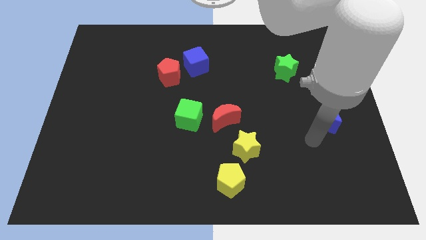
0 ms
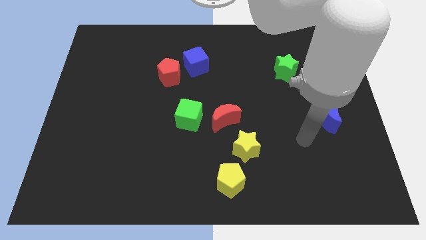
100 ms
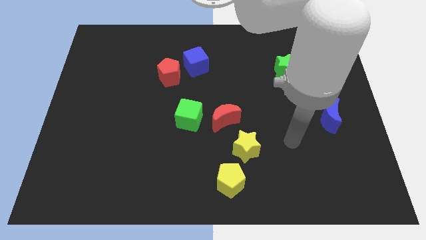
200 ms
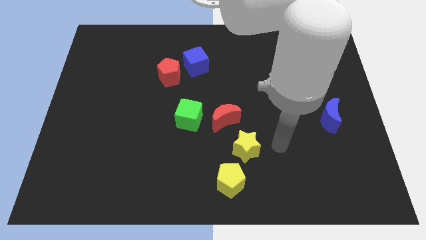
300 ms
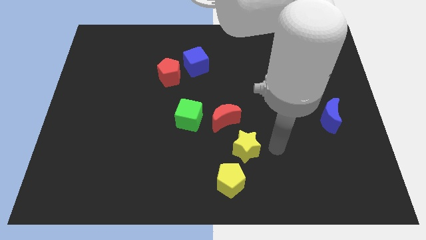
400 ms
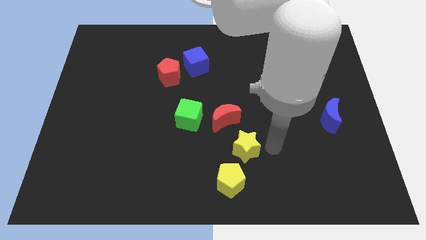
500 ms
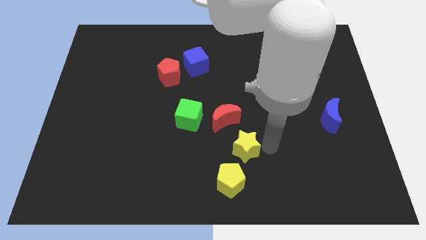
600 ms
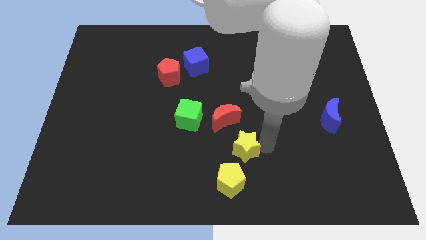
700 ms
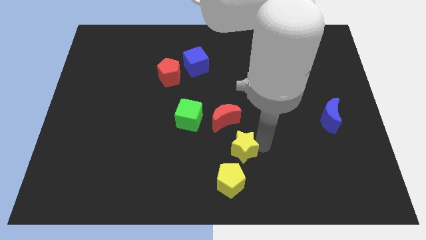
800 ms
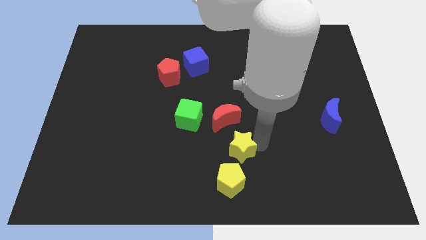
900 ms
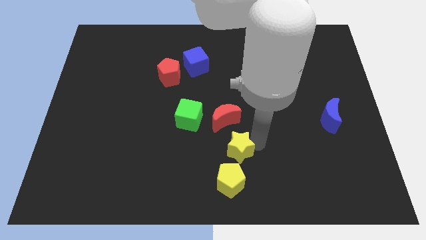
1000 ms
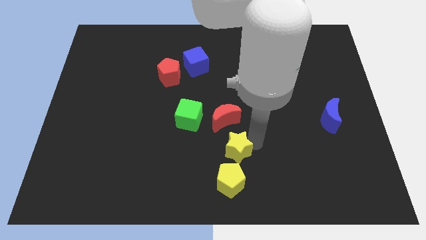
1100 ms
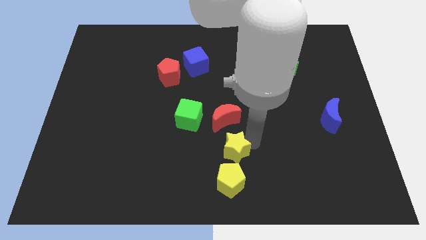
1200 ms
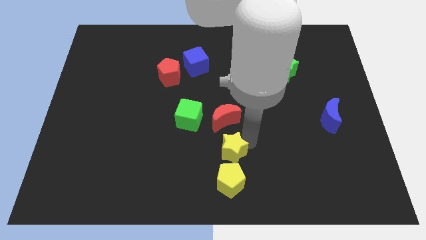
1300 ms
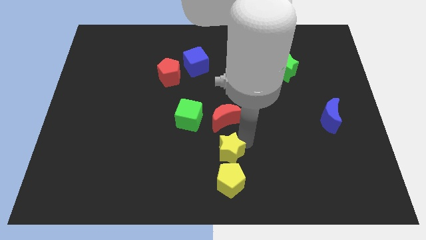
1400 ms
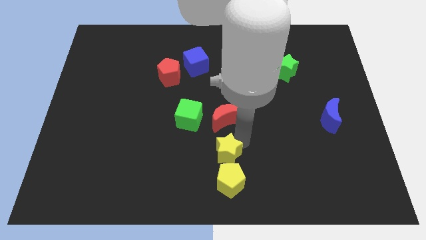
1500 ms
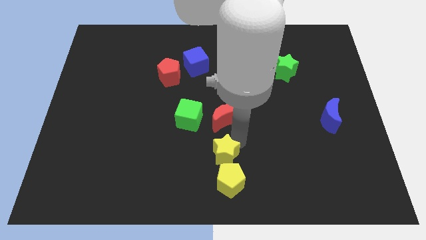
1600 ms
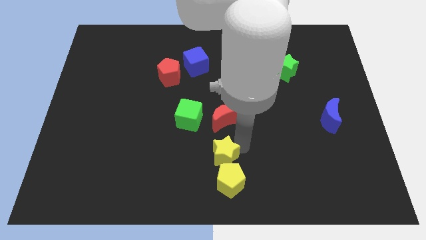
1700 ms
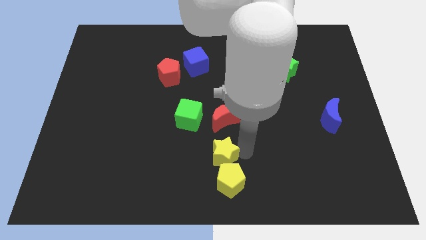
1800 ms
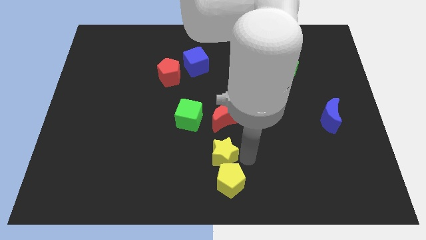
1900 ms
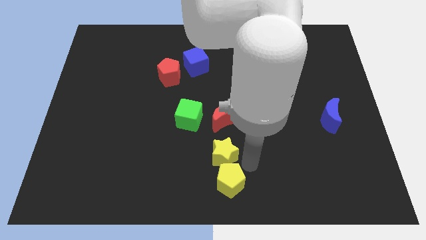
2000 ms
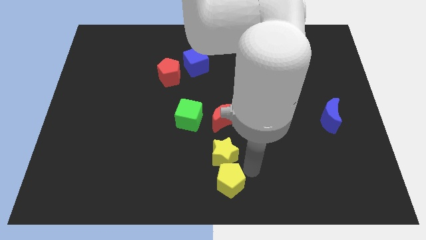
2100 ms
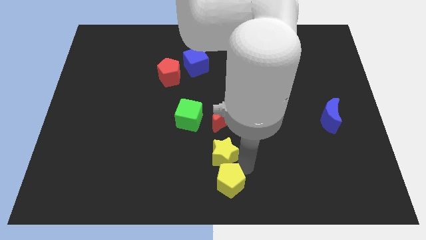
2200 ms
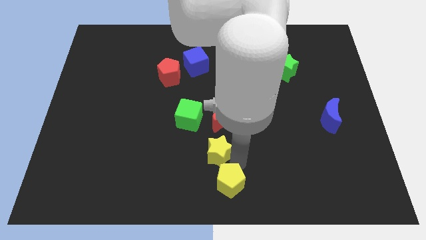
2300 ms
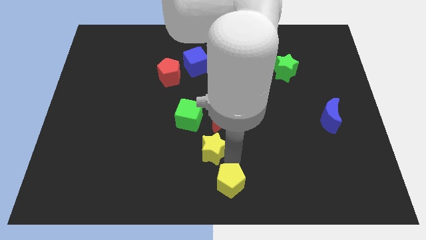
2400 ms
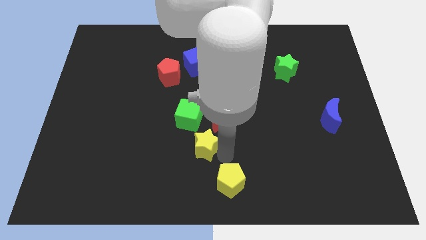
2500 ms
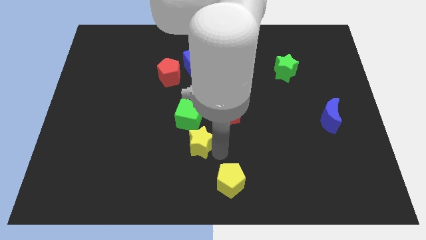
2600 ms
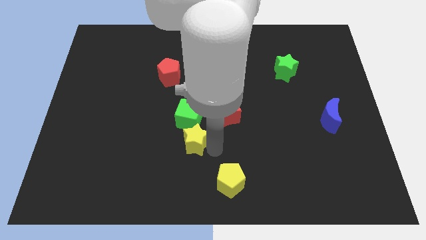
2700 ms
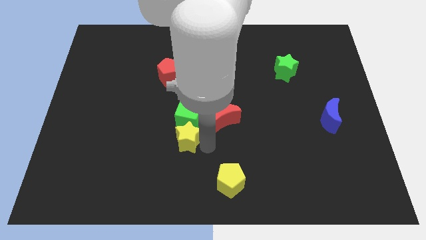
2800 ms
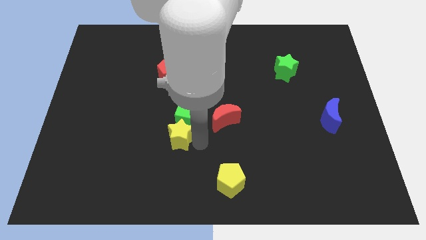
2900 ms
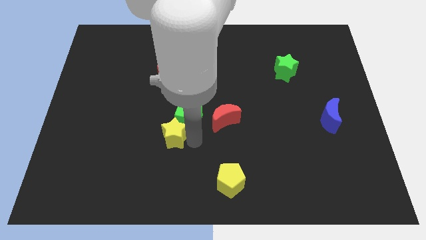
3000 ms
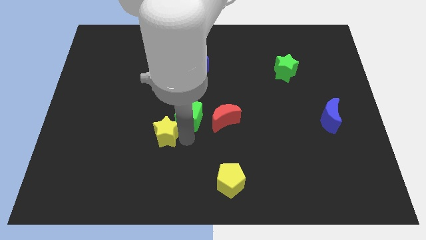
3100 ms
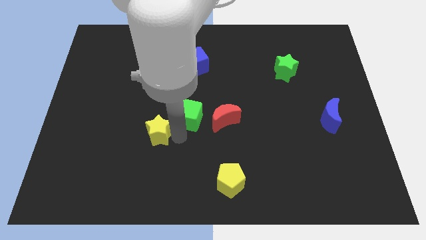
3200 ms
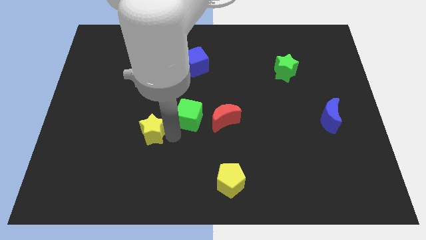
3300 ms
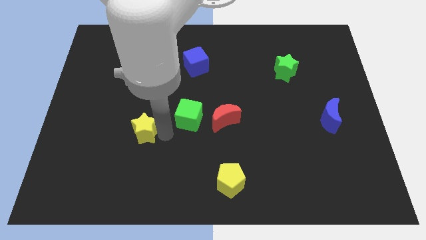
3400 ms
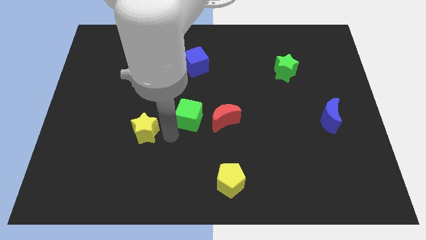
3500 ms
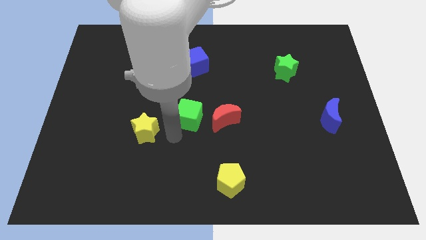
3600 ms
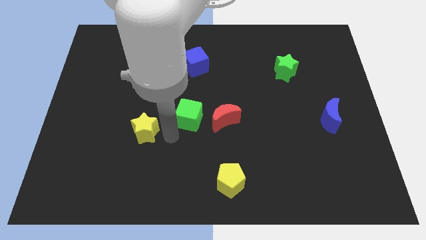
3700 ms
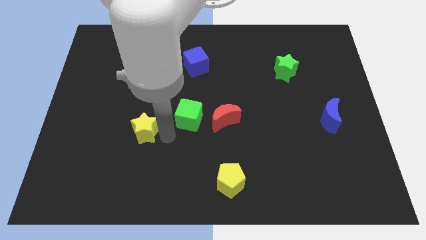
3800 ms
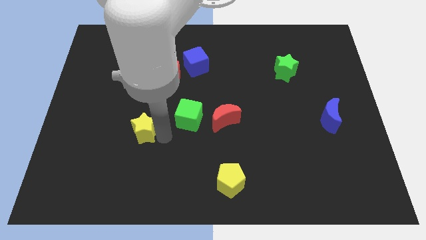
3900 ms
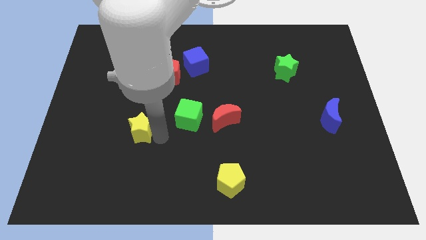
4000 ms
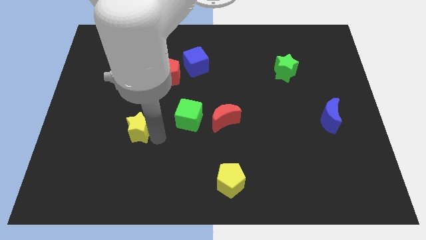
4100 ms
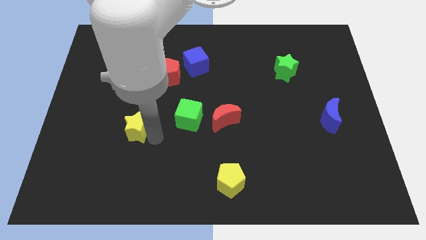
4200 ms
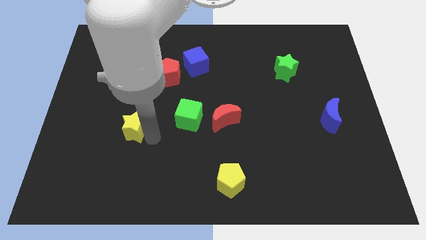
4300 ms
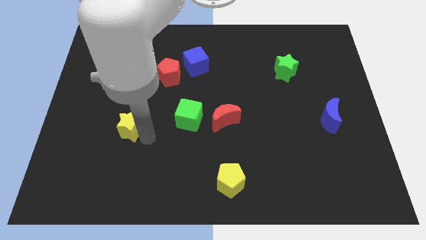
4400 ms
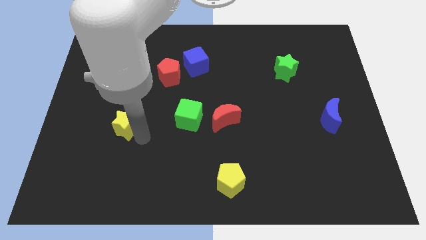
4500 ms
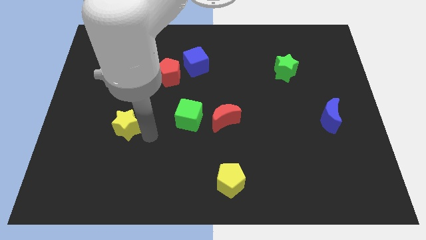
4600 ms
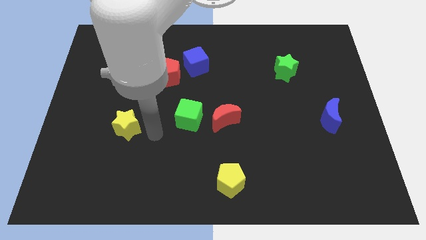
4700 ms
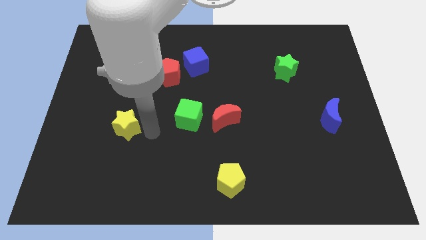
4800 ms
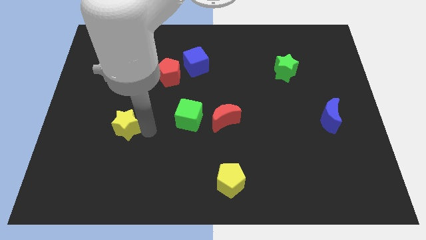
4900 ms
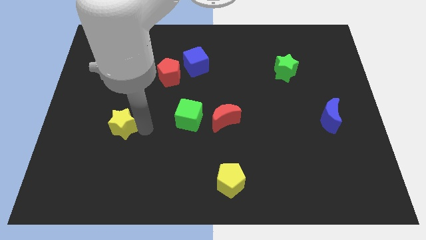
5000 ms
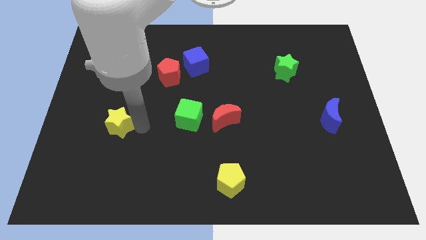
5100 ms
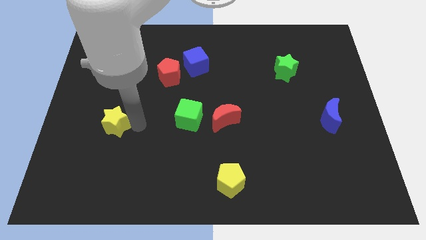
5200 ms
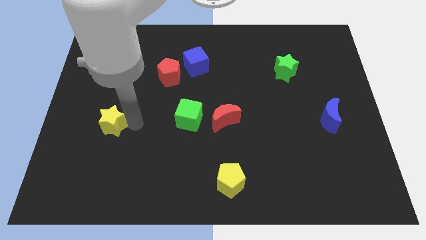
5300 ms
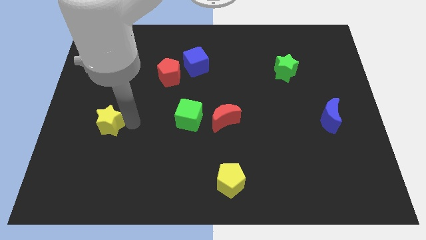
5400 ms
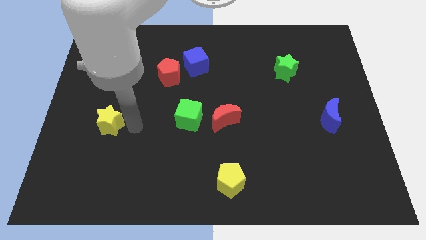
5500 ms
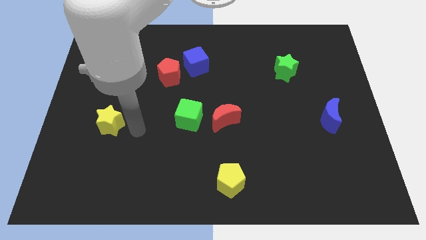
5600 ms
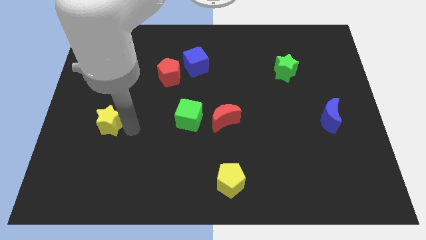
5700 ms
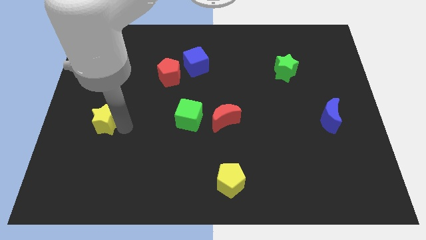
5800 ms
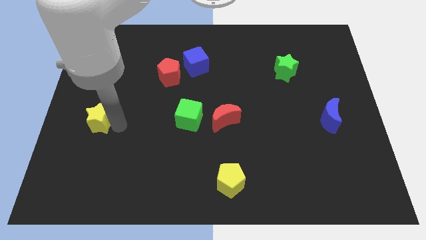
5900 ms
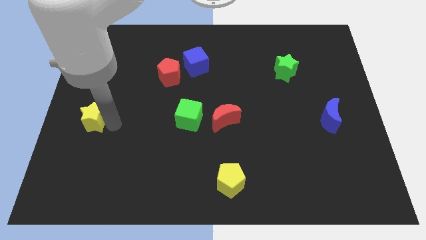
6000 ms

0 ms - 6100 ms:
push the yellow star to the center left

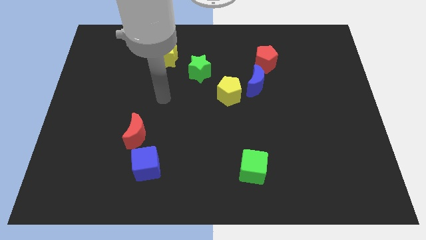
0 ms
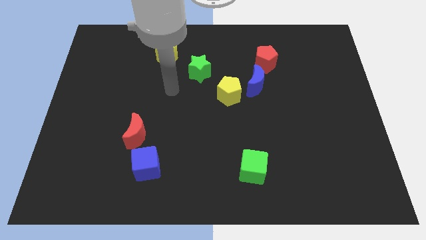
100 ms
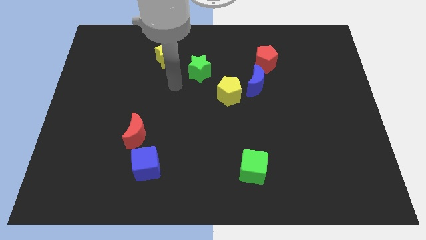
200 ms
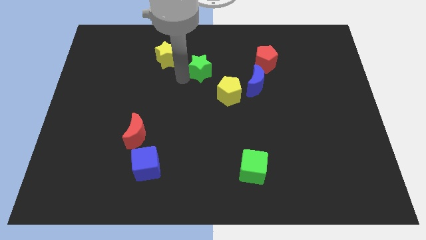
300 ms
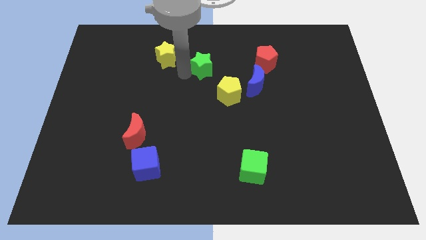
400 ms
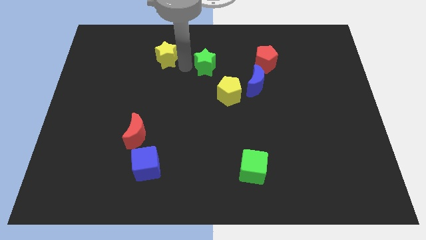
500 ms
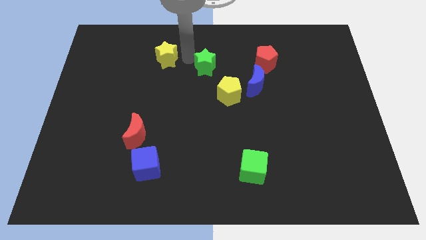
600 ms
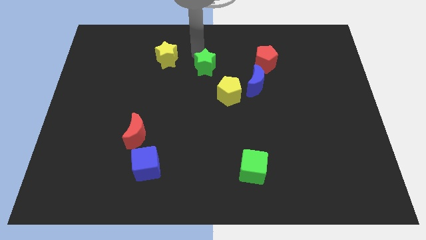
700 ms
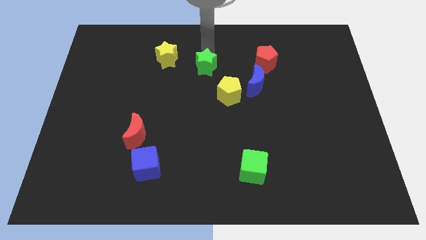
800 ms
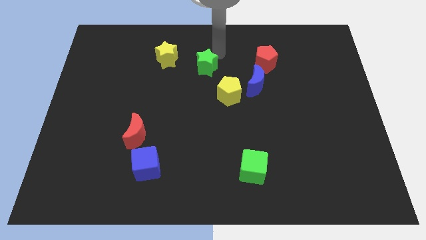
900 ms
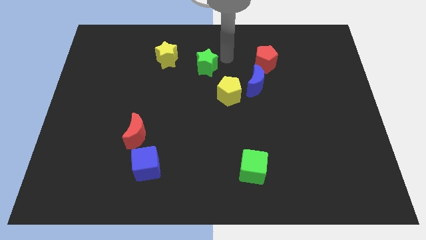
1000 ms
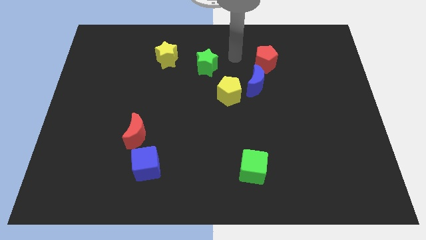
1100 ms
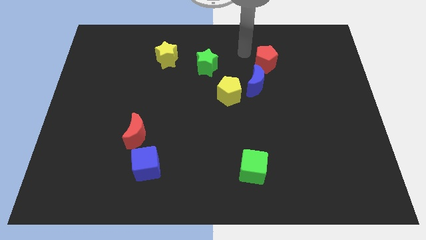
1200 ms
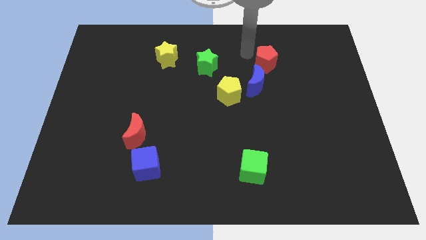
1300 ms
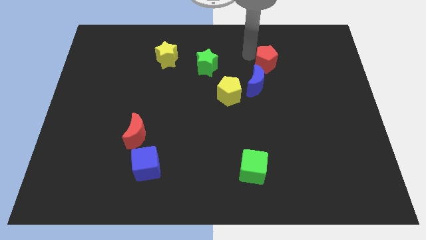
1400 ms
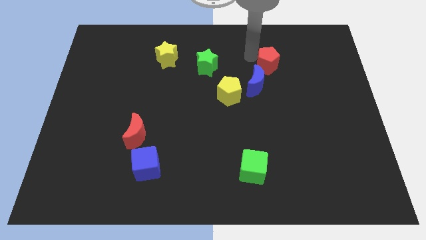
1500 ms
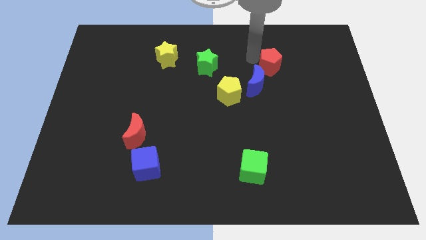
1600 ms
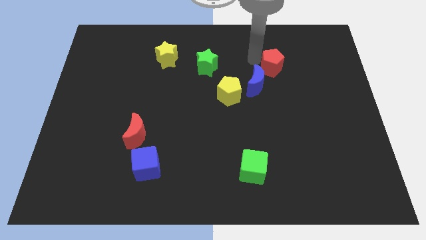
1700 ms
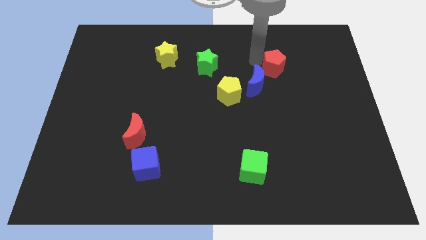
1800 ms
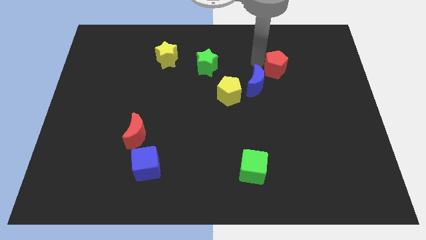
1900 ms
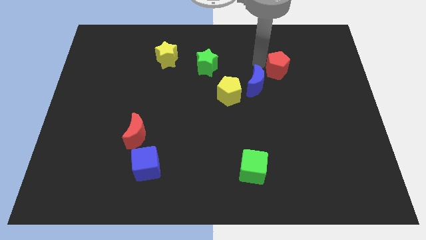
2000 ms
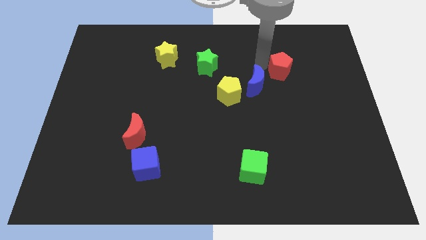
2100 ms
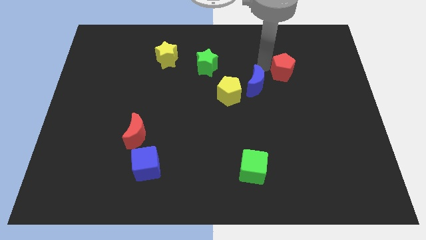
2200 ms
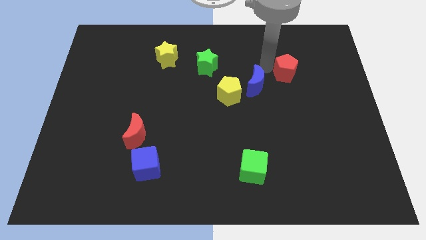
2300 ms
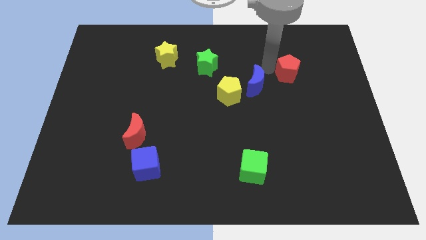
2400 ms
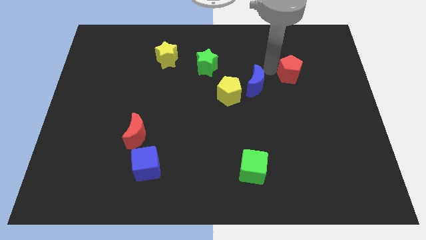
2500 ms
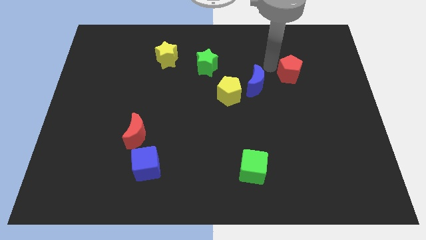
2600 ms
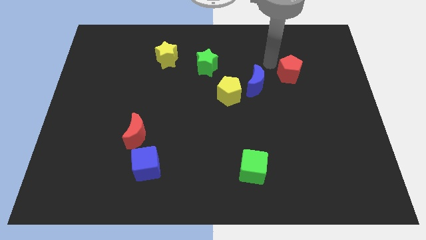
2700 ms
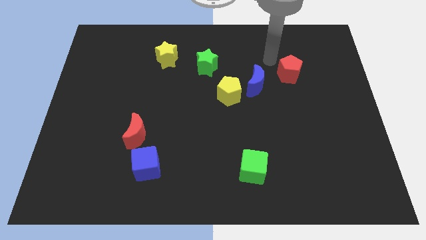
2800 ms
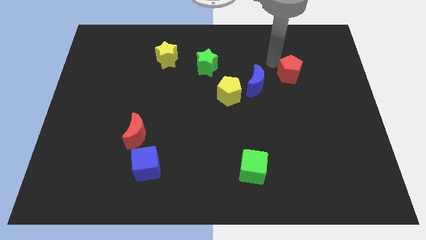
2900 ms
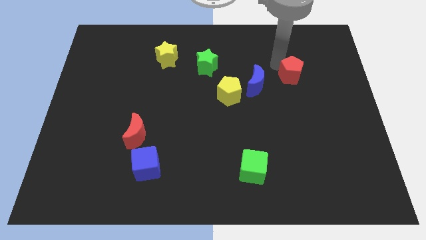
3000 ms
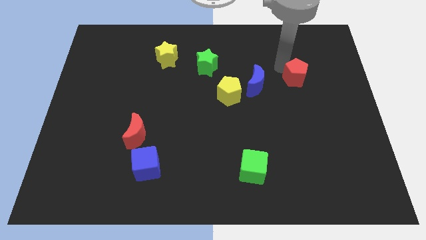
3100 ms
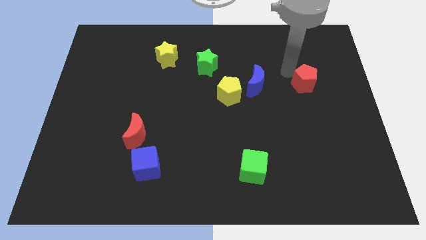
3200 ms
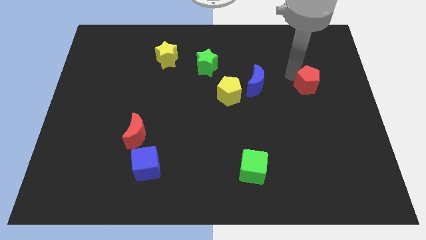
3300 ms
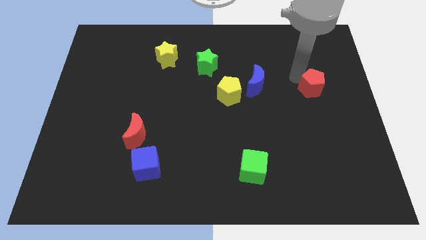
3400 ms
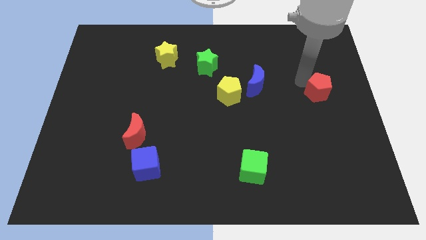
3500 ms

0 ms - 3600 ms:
slide the red pentagon to the center right
